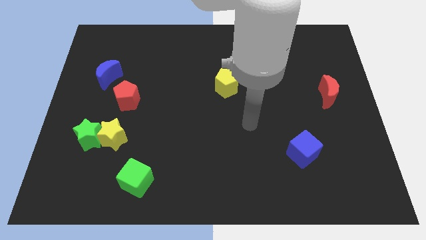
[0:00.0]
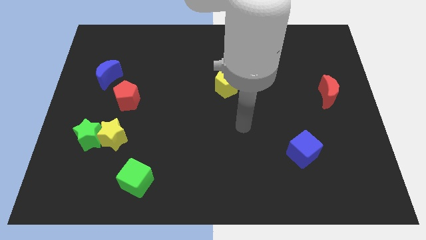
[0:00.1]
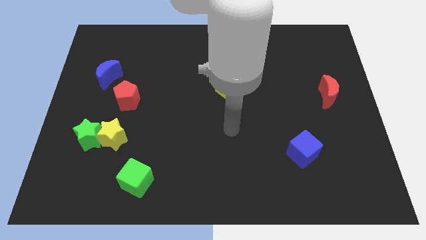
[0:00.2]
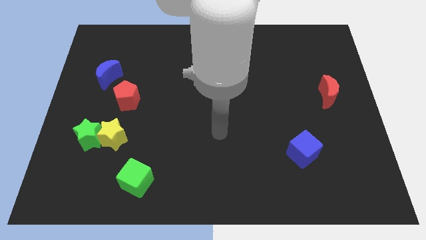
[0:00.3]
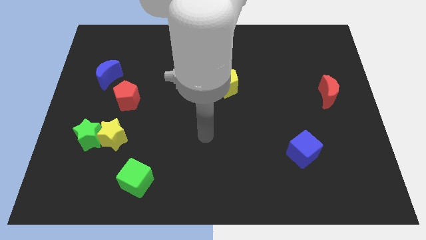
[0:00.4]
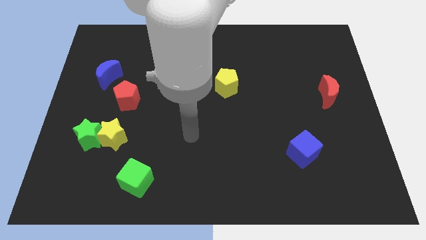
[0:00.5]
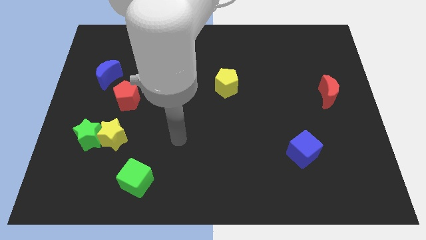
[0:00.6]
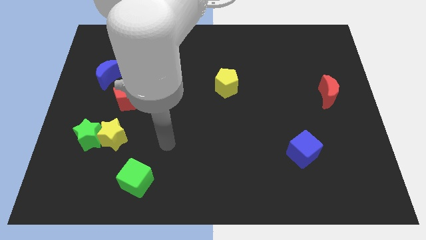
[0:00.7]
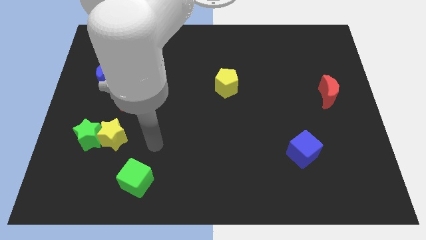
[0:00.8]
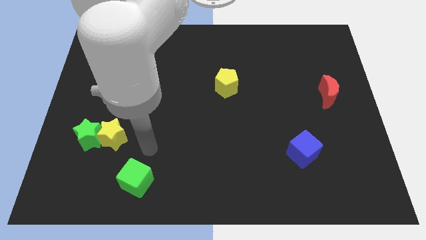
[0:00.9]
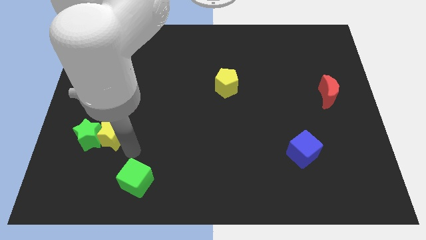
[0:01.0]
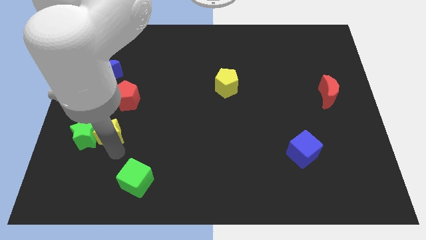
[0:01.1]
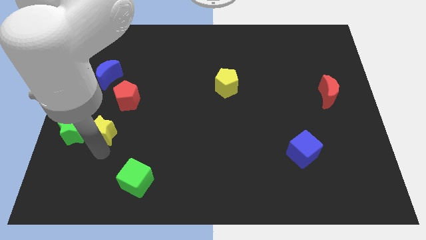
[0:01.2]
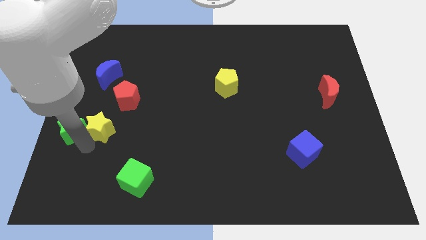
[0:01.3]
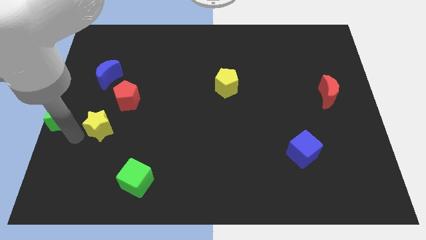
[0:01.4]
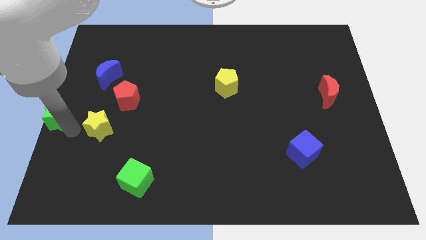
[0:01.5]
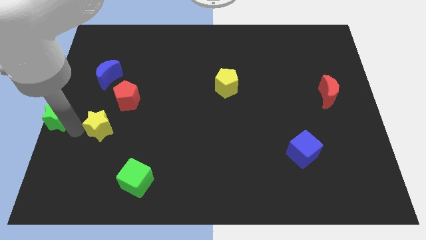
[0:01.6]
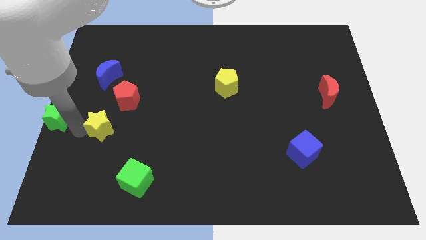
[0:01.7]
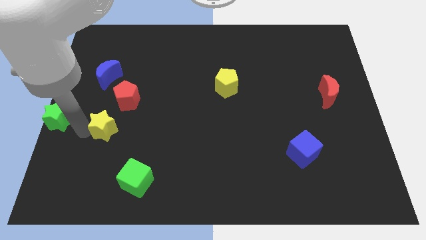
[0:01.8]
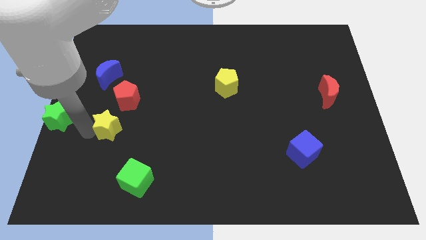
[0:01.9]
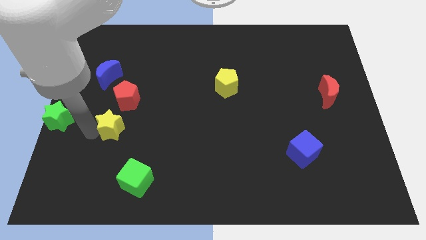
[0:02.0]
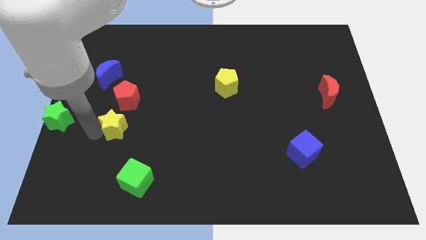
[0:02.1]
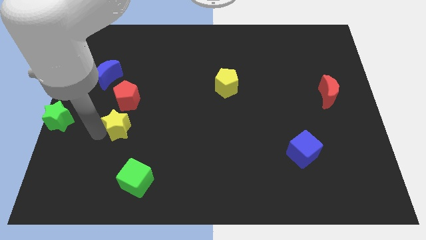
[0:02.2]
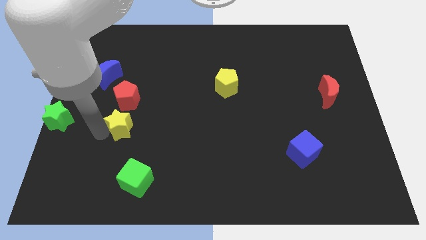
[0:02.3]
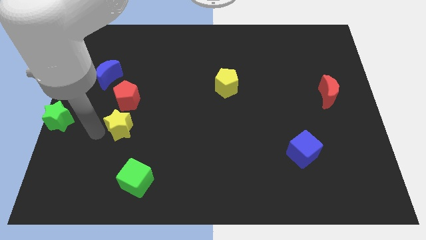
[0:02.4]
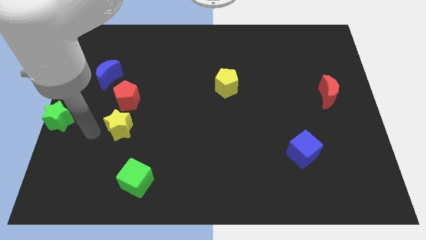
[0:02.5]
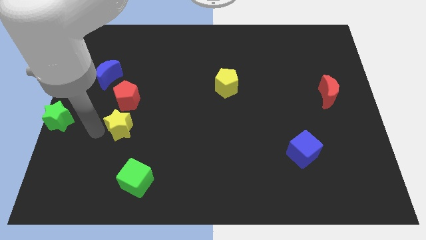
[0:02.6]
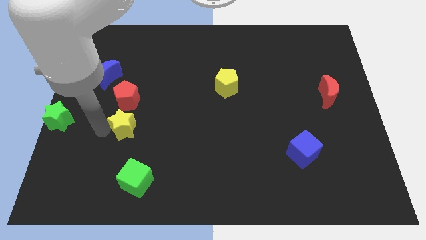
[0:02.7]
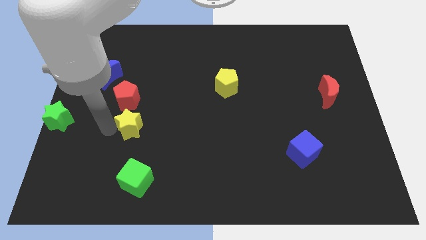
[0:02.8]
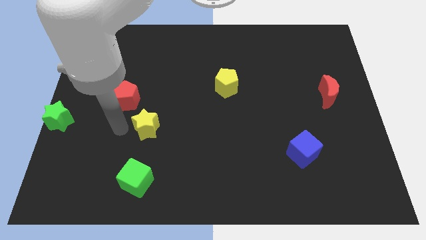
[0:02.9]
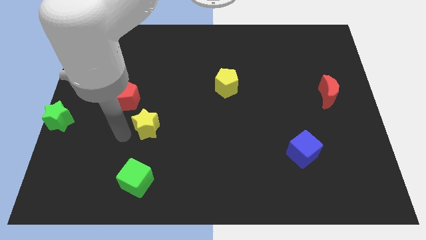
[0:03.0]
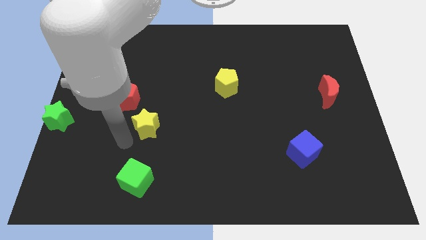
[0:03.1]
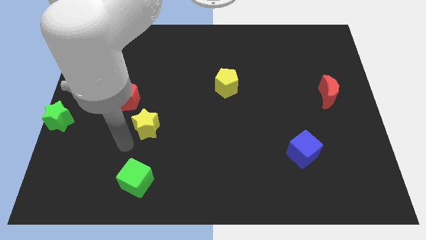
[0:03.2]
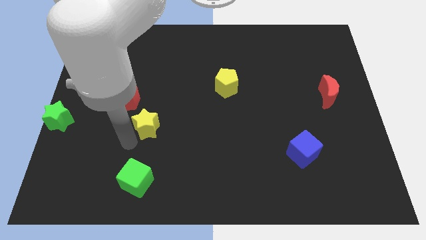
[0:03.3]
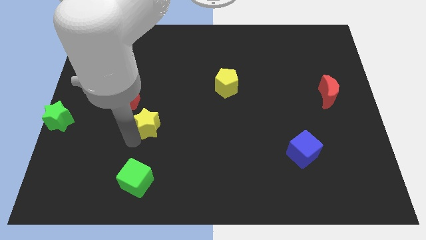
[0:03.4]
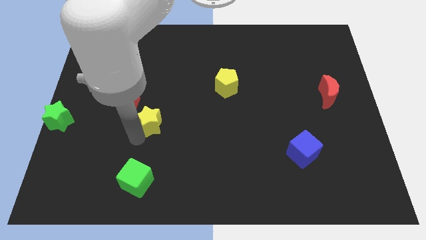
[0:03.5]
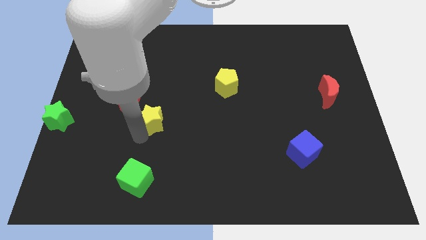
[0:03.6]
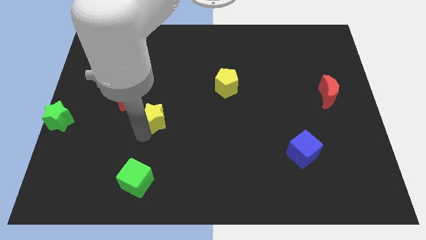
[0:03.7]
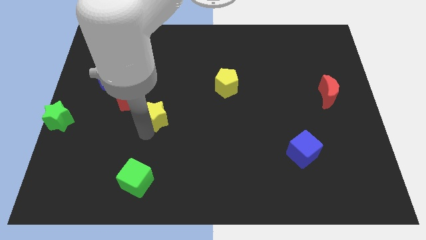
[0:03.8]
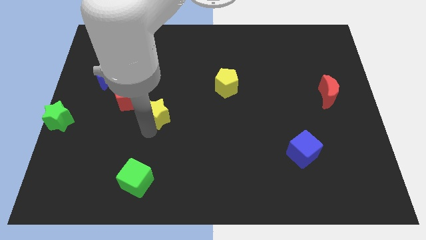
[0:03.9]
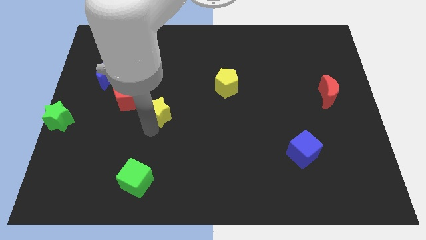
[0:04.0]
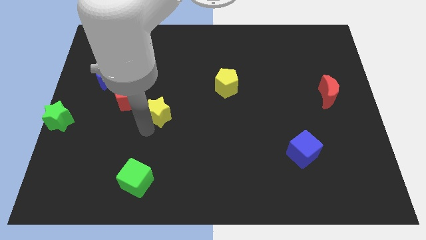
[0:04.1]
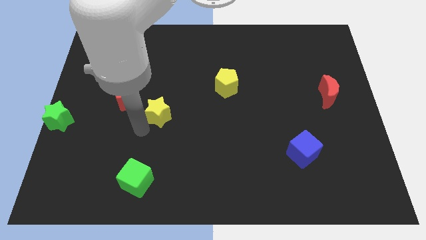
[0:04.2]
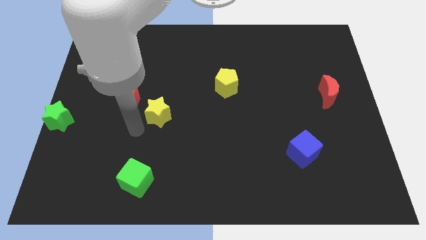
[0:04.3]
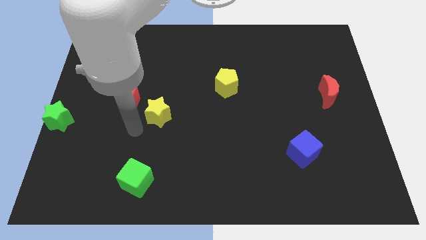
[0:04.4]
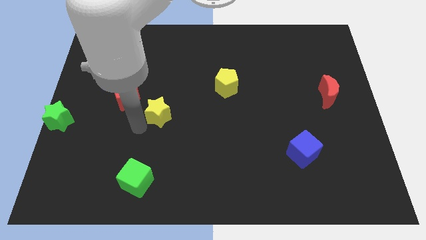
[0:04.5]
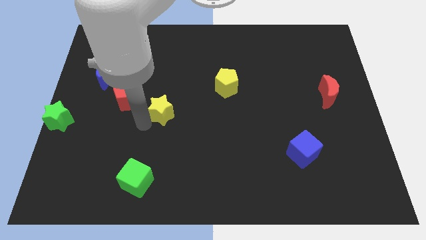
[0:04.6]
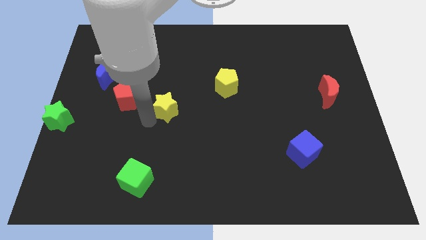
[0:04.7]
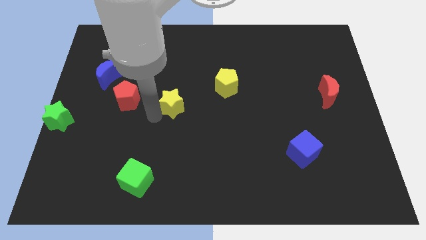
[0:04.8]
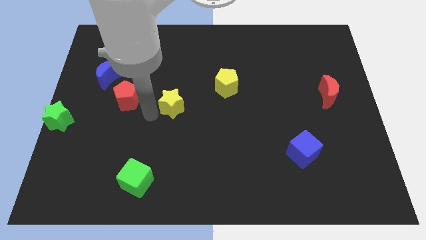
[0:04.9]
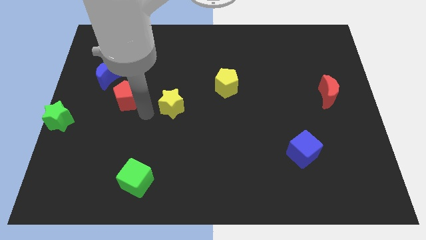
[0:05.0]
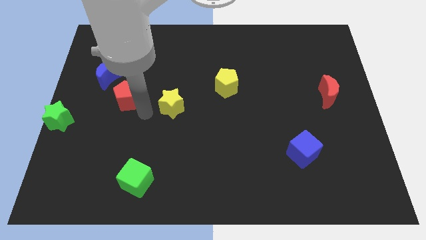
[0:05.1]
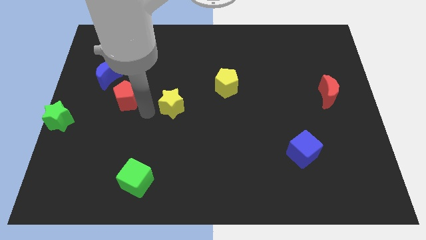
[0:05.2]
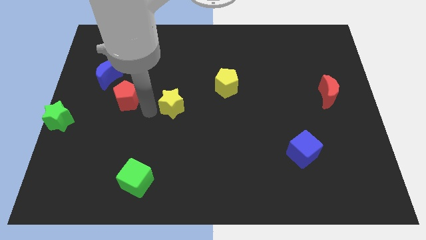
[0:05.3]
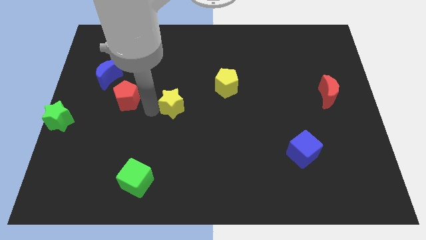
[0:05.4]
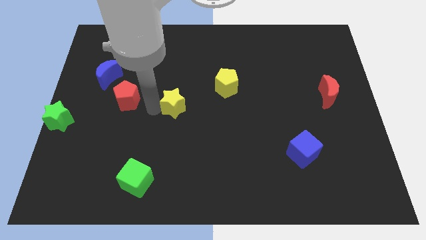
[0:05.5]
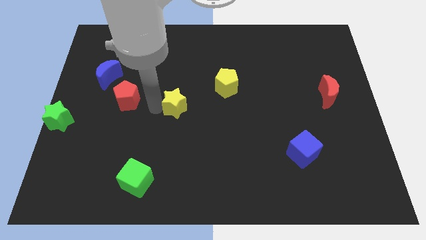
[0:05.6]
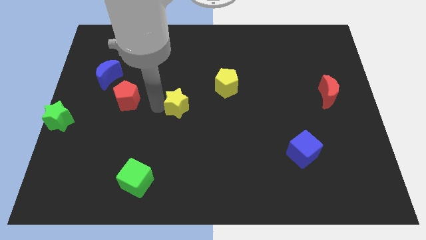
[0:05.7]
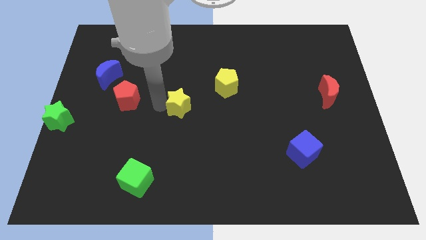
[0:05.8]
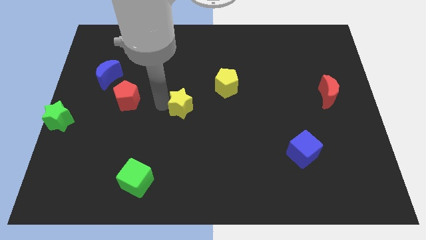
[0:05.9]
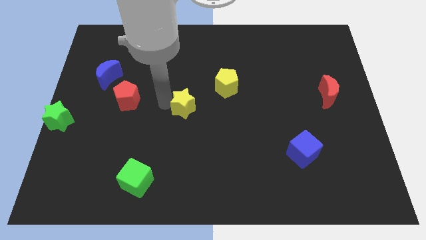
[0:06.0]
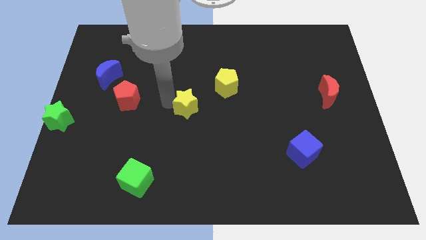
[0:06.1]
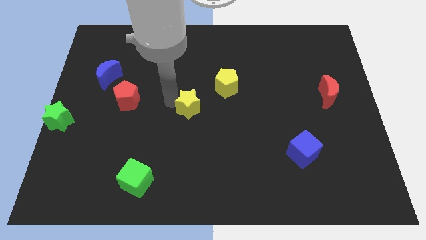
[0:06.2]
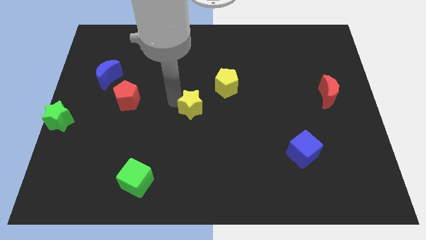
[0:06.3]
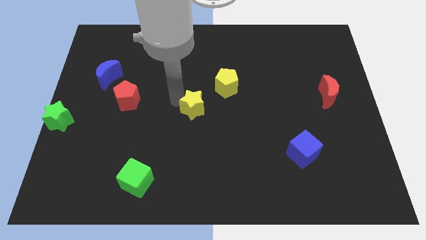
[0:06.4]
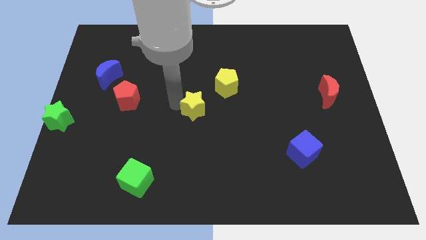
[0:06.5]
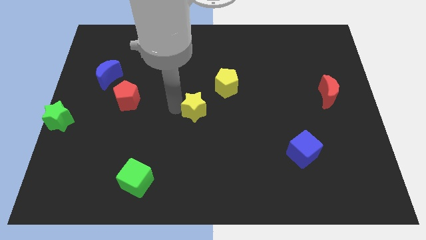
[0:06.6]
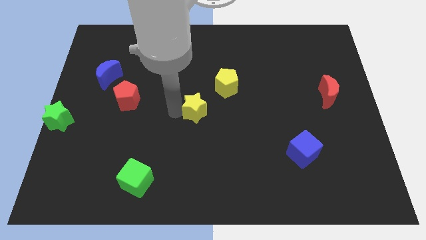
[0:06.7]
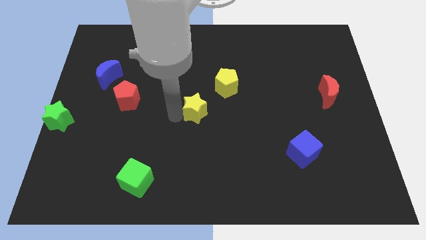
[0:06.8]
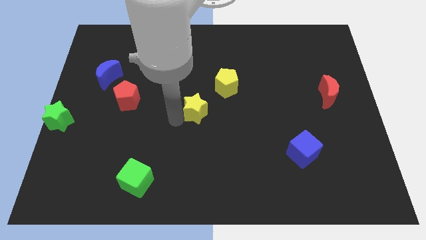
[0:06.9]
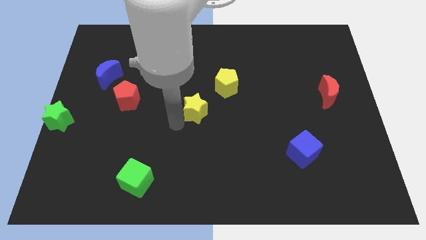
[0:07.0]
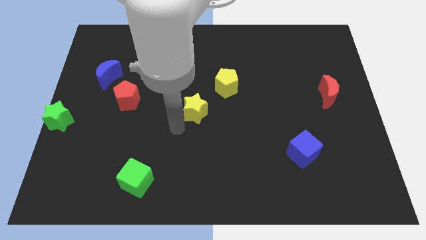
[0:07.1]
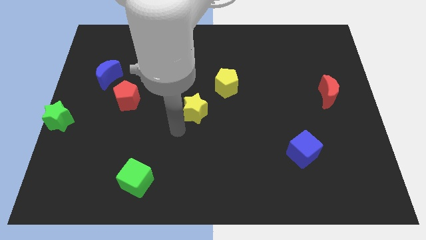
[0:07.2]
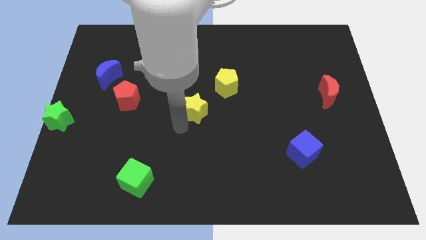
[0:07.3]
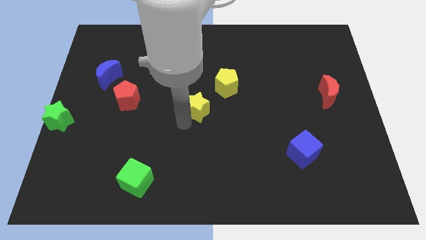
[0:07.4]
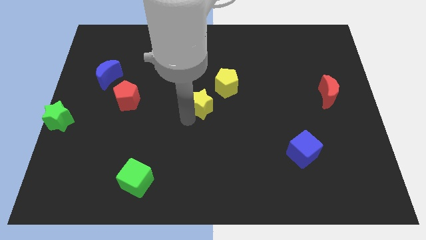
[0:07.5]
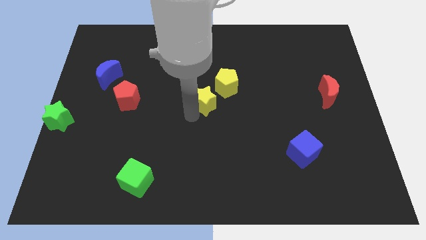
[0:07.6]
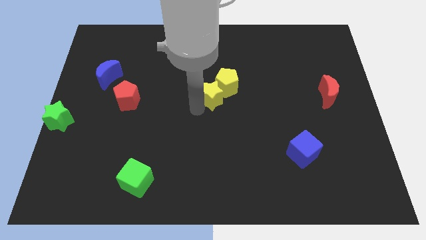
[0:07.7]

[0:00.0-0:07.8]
put the yellow star to the yellow pentagon
